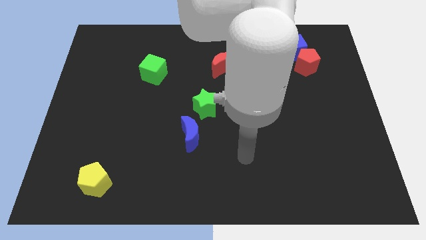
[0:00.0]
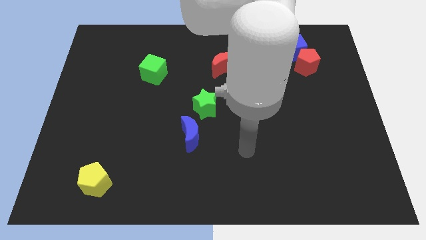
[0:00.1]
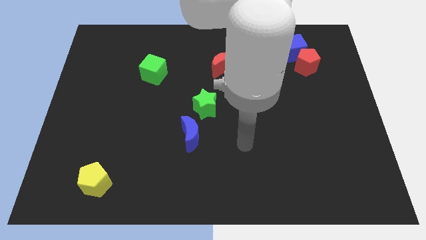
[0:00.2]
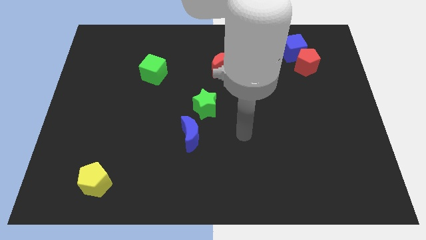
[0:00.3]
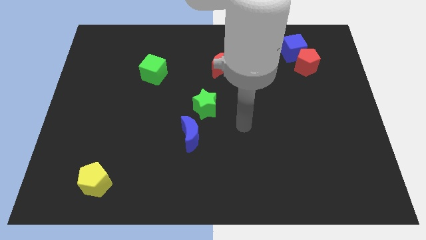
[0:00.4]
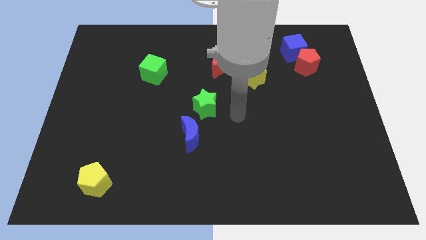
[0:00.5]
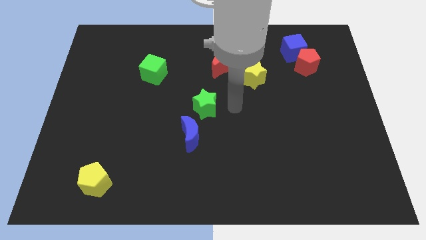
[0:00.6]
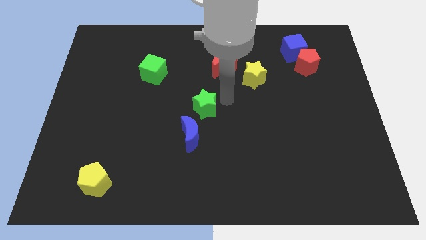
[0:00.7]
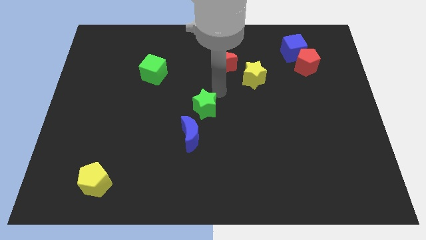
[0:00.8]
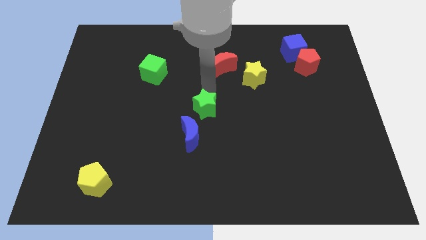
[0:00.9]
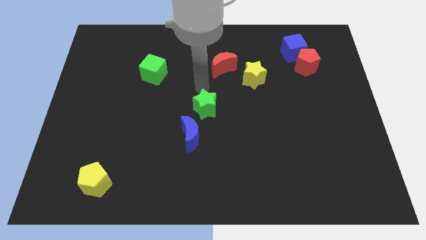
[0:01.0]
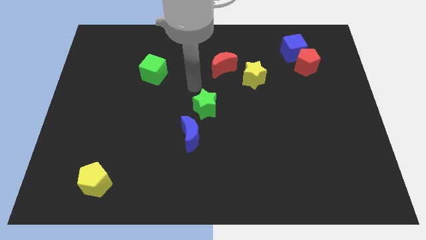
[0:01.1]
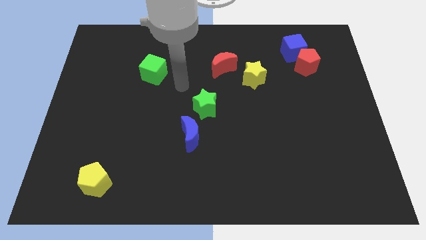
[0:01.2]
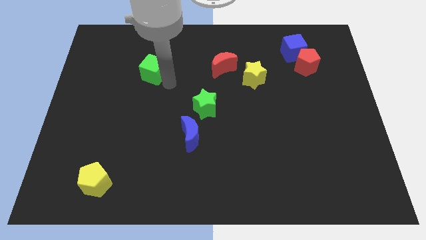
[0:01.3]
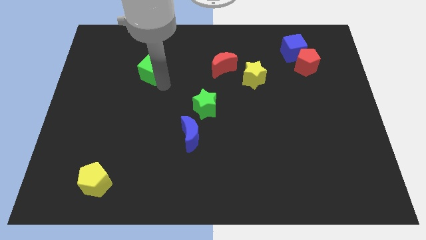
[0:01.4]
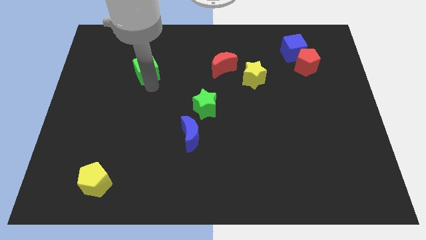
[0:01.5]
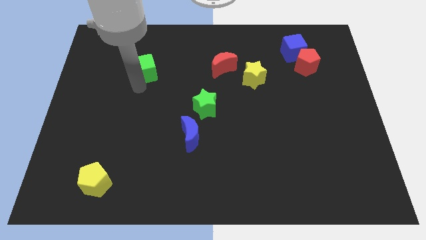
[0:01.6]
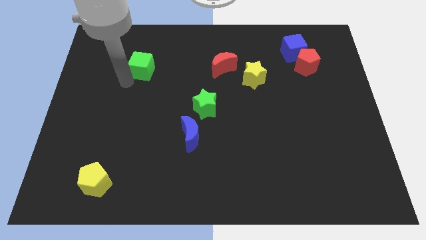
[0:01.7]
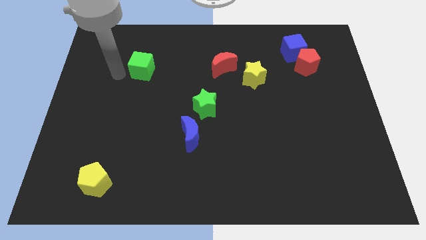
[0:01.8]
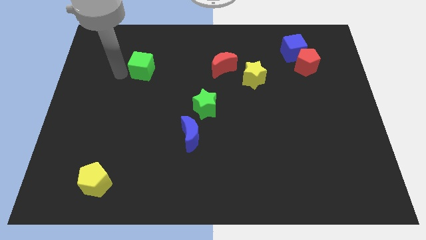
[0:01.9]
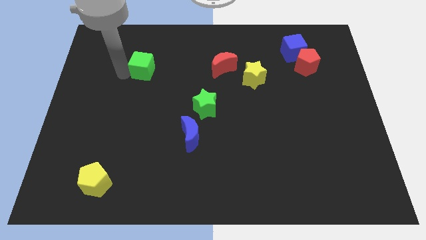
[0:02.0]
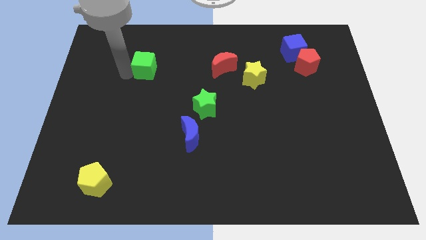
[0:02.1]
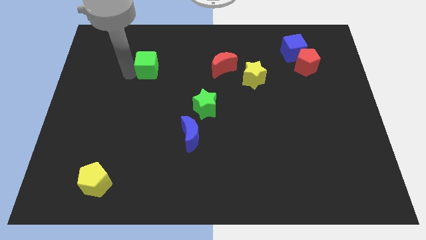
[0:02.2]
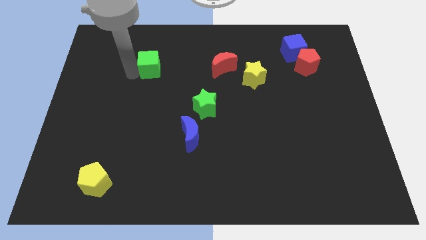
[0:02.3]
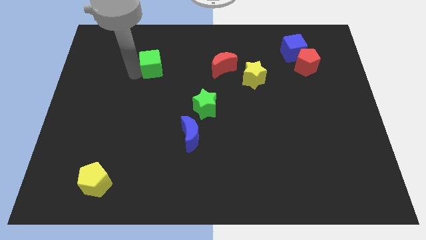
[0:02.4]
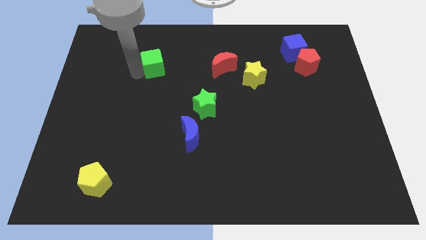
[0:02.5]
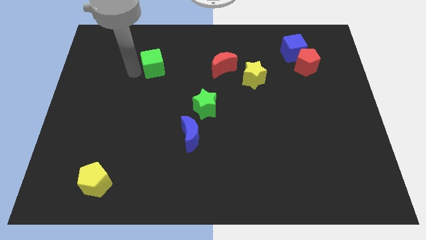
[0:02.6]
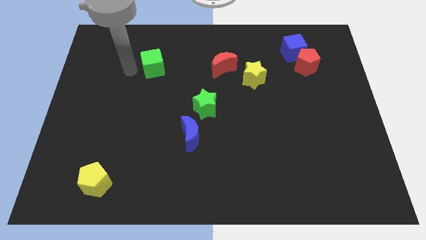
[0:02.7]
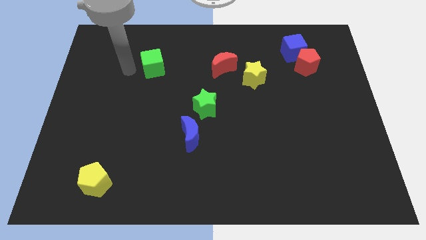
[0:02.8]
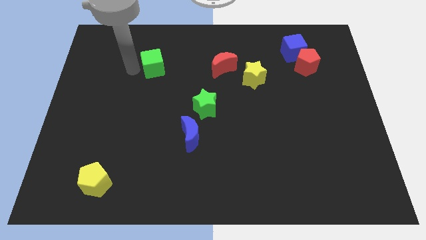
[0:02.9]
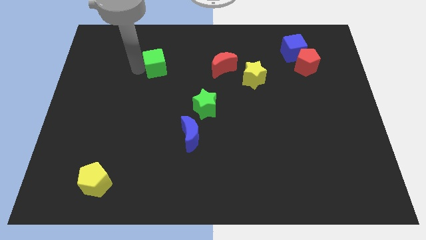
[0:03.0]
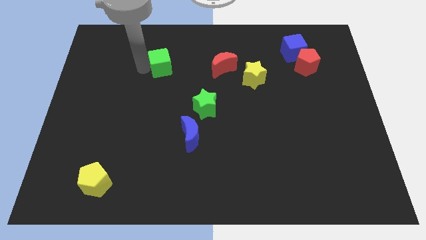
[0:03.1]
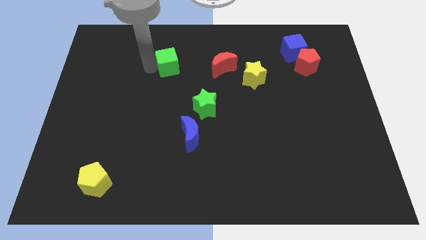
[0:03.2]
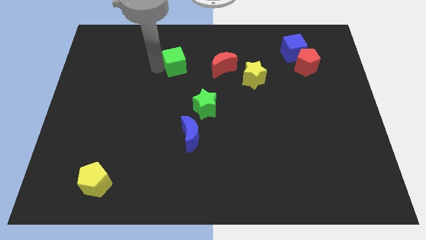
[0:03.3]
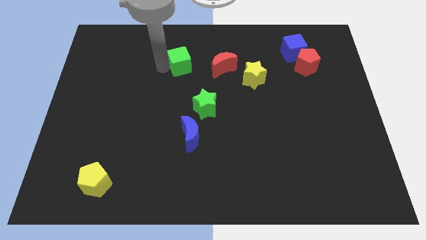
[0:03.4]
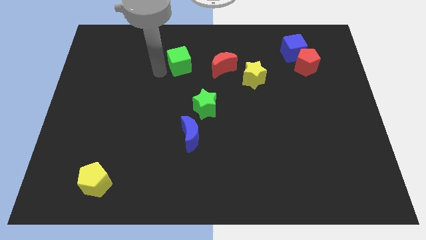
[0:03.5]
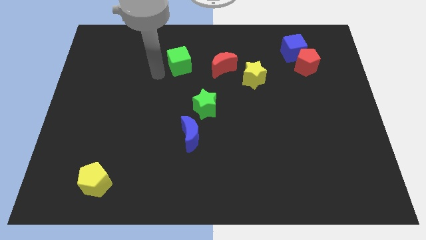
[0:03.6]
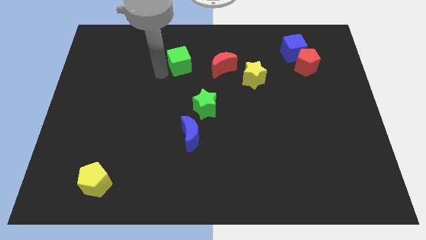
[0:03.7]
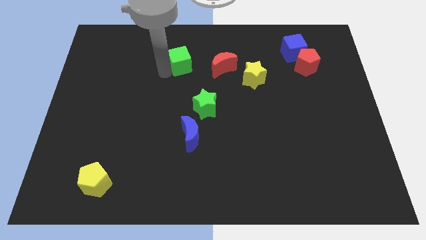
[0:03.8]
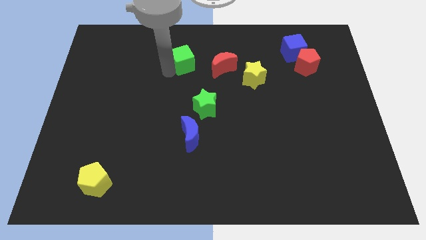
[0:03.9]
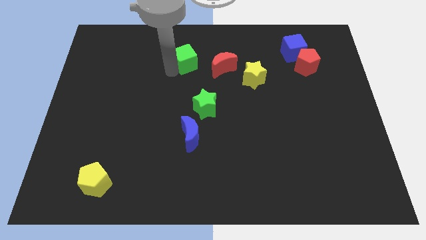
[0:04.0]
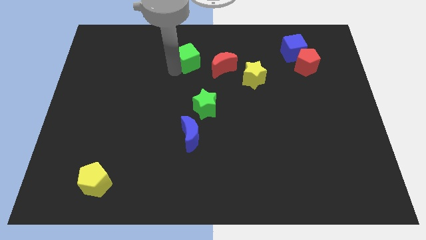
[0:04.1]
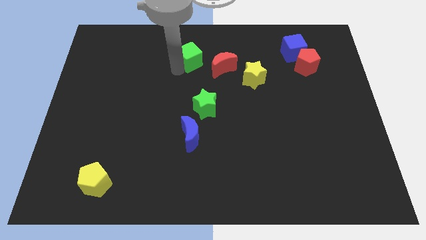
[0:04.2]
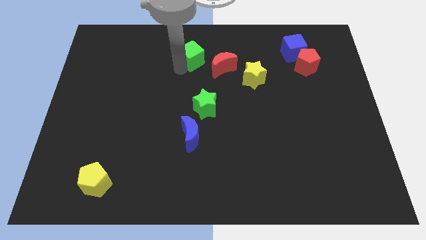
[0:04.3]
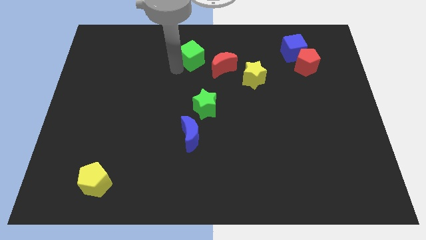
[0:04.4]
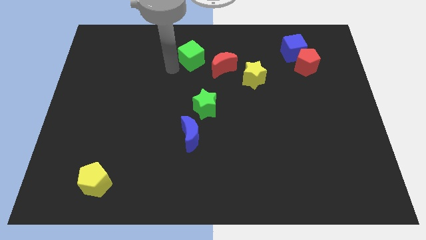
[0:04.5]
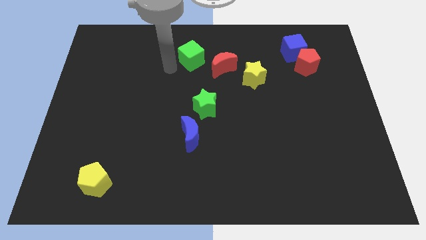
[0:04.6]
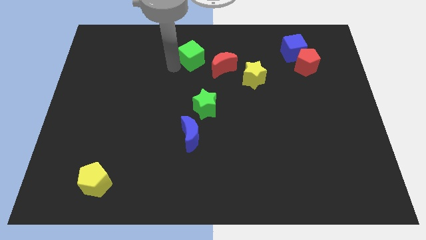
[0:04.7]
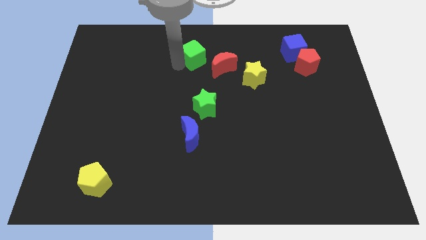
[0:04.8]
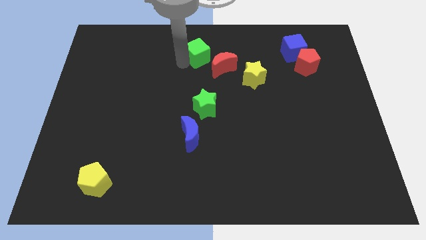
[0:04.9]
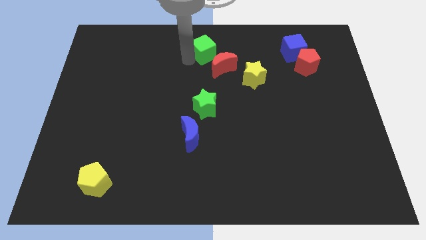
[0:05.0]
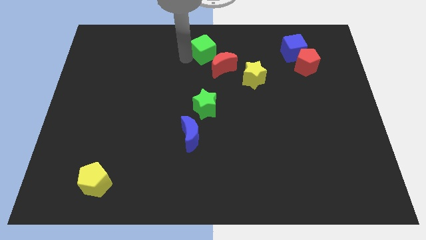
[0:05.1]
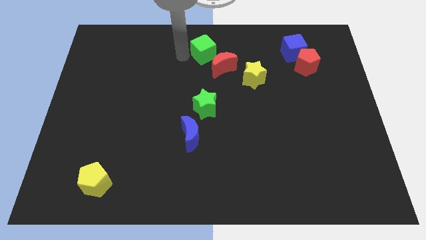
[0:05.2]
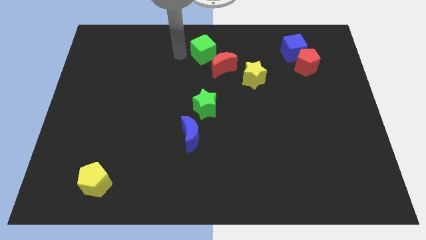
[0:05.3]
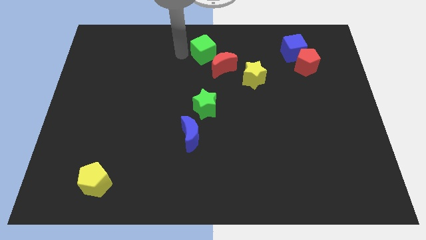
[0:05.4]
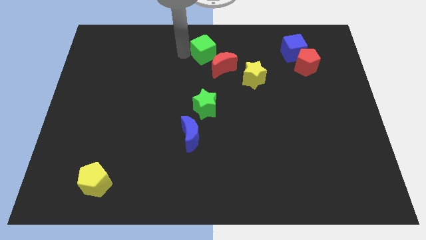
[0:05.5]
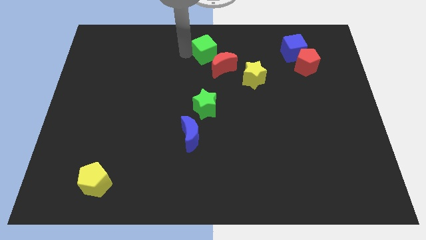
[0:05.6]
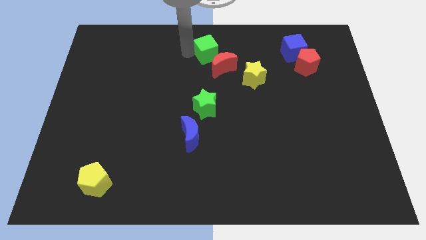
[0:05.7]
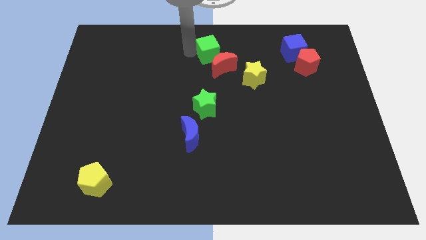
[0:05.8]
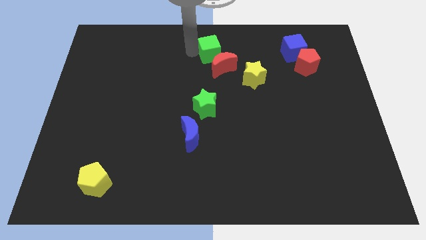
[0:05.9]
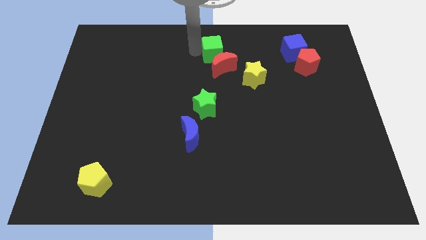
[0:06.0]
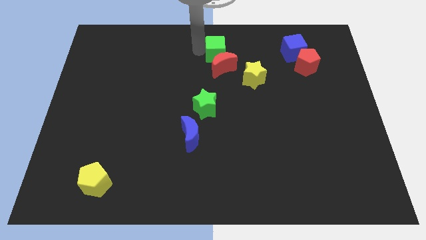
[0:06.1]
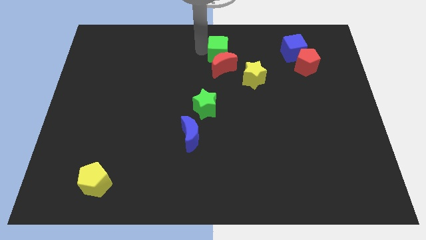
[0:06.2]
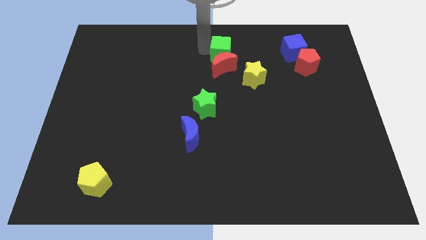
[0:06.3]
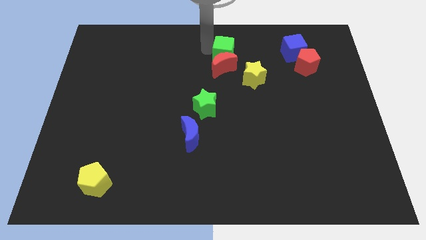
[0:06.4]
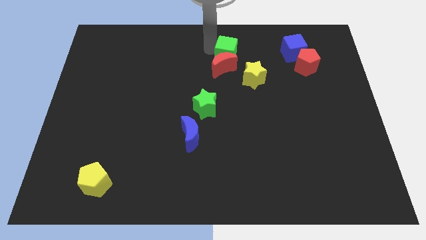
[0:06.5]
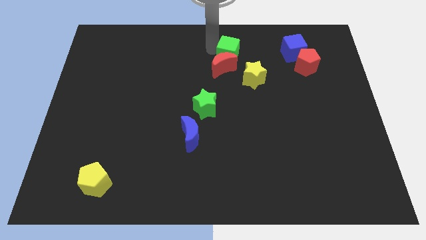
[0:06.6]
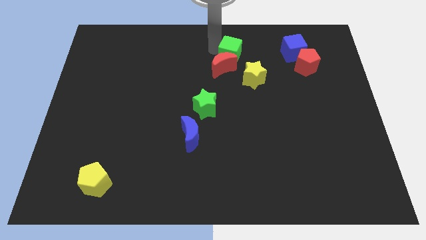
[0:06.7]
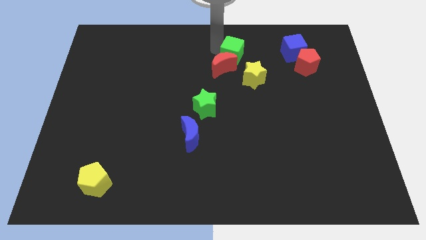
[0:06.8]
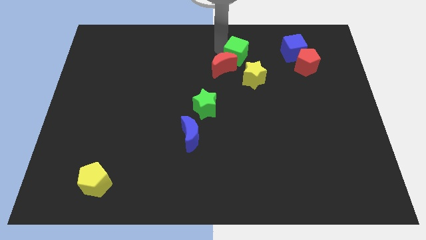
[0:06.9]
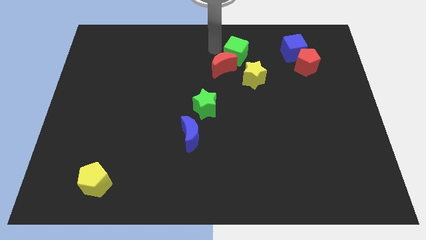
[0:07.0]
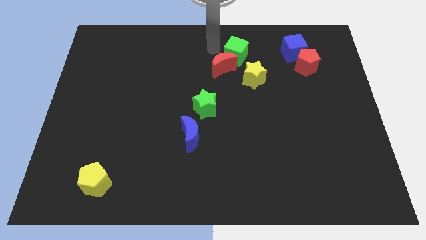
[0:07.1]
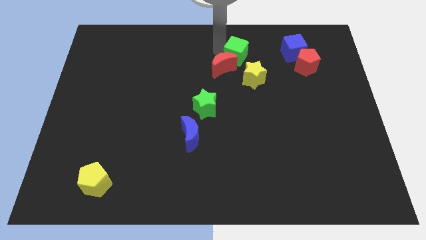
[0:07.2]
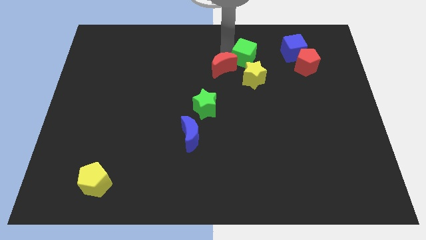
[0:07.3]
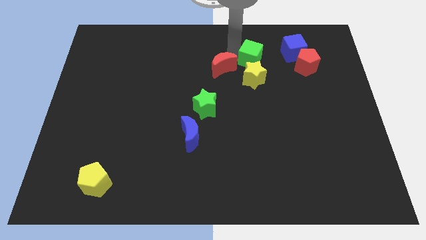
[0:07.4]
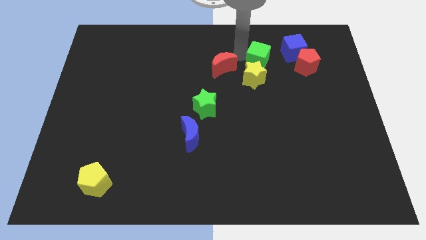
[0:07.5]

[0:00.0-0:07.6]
slide the green cube diagonally up and to the right of the yellow star
